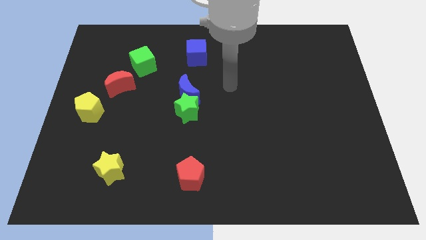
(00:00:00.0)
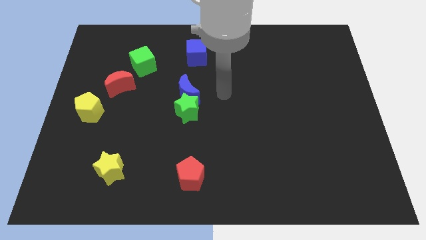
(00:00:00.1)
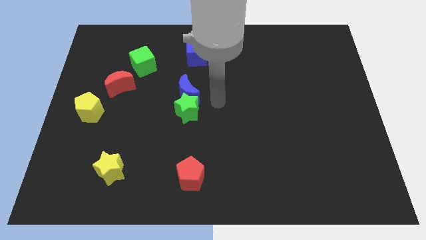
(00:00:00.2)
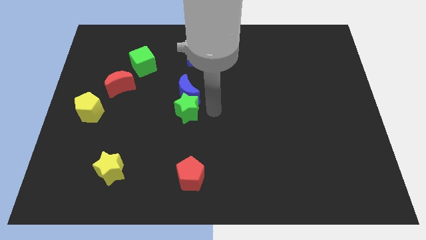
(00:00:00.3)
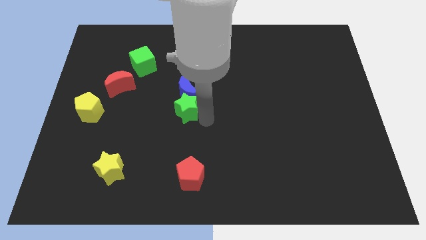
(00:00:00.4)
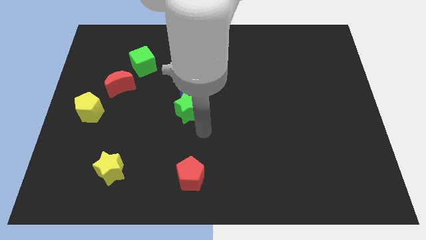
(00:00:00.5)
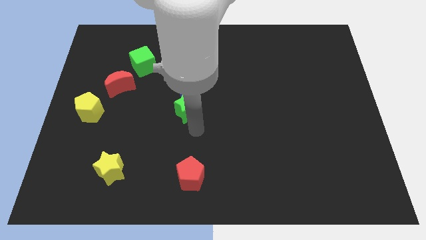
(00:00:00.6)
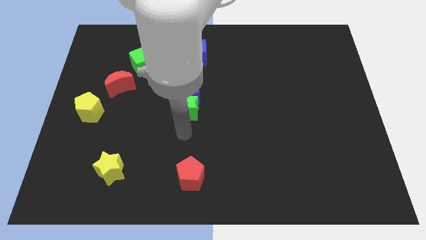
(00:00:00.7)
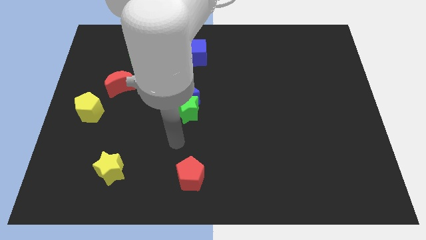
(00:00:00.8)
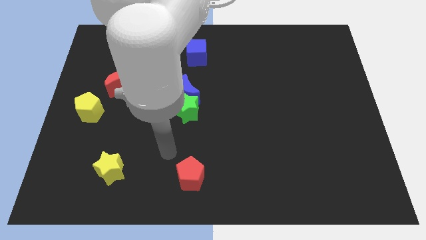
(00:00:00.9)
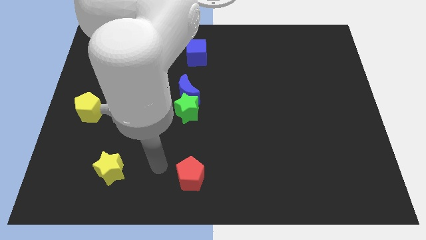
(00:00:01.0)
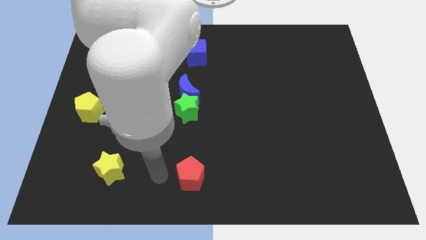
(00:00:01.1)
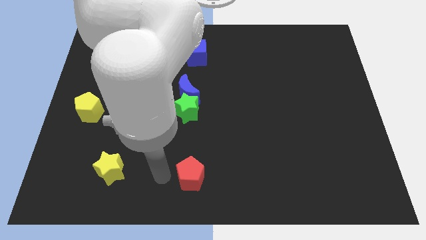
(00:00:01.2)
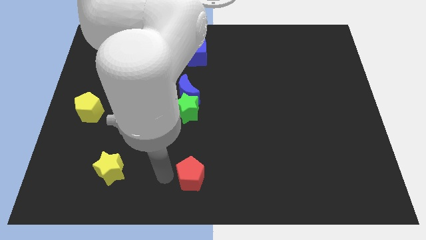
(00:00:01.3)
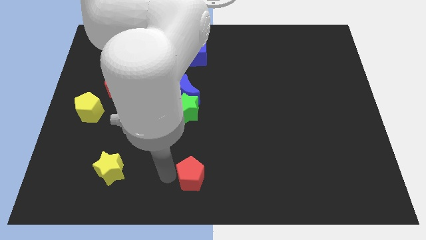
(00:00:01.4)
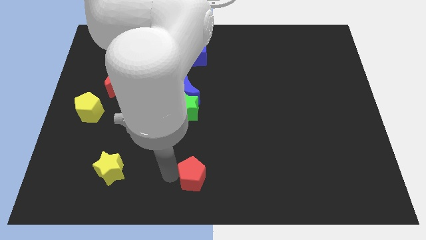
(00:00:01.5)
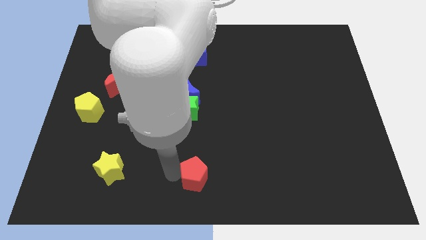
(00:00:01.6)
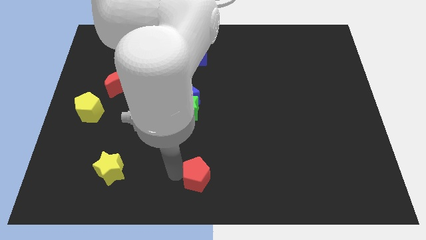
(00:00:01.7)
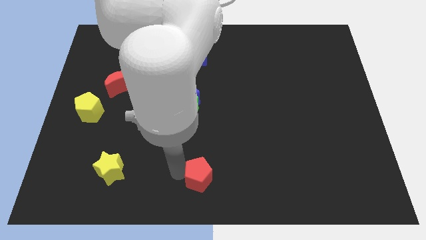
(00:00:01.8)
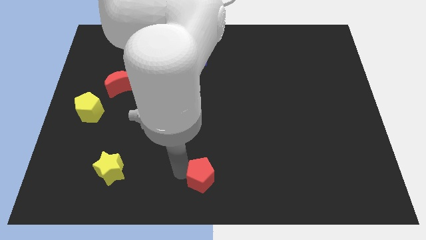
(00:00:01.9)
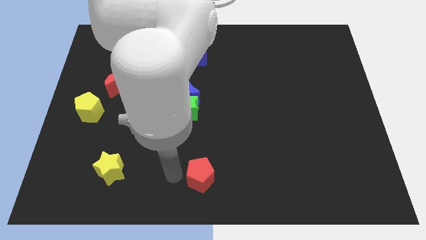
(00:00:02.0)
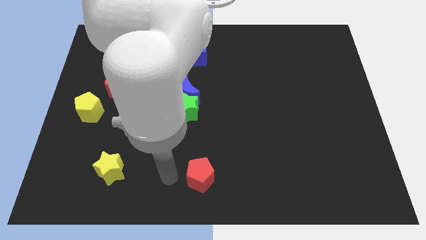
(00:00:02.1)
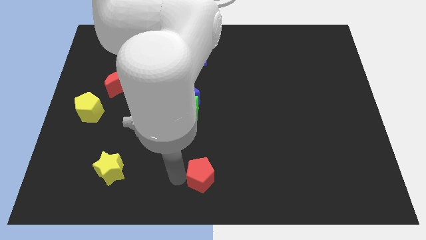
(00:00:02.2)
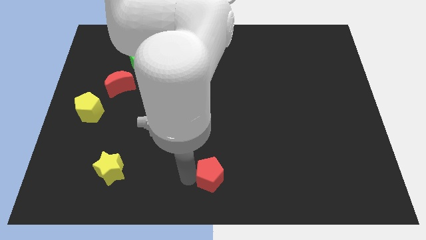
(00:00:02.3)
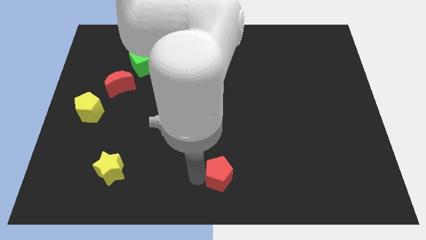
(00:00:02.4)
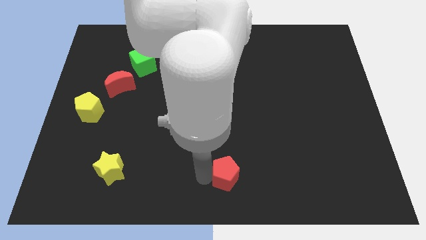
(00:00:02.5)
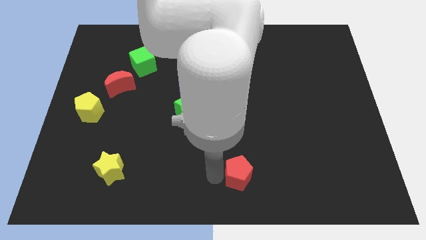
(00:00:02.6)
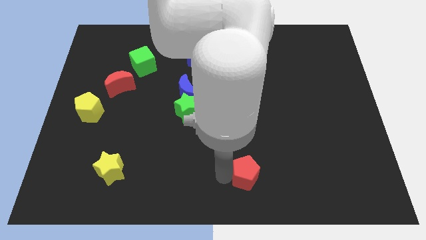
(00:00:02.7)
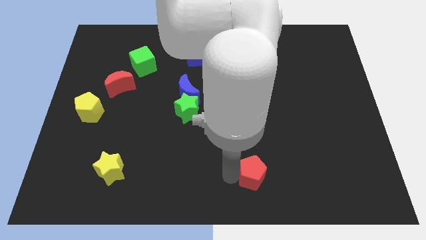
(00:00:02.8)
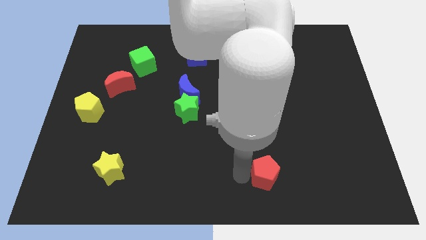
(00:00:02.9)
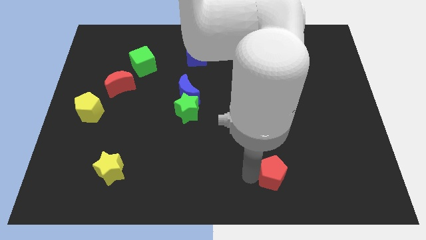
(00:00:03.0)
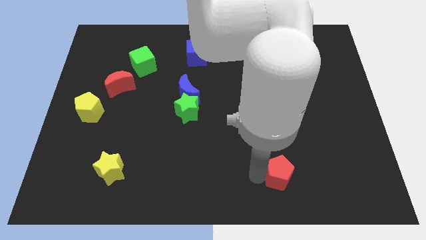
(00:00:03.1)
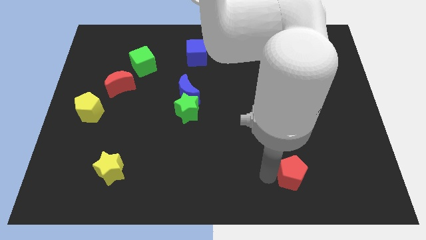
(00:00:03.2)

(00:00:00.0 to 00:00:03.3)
move the red pentagon right

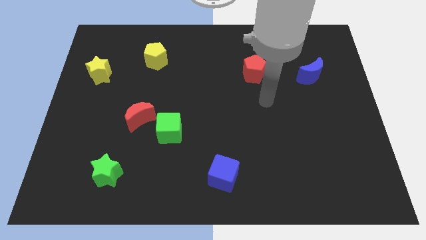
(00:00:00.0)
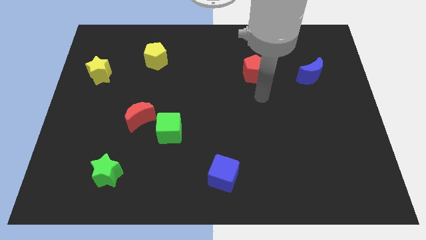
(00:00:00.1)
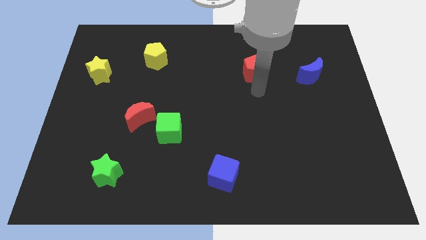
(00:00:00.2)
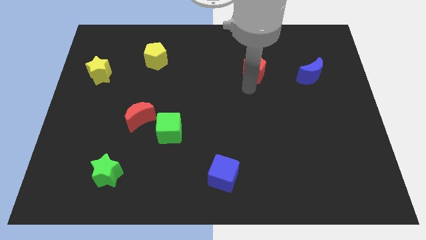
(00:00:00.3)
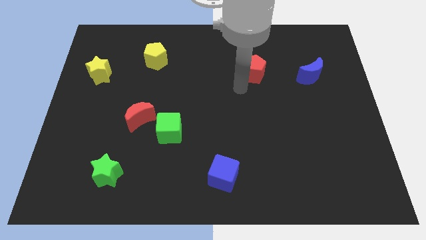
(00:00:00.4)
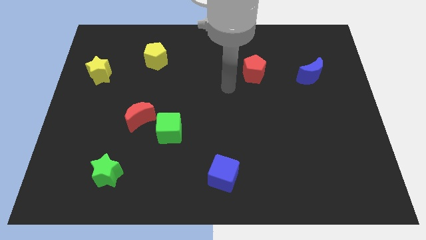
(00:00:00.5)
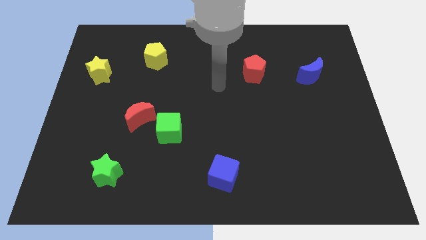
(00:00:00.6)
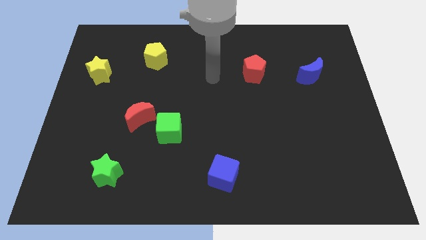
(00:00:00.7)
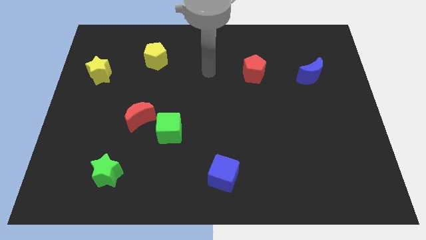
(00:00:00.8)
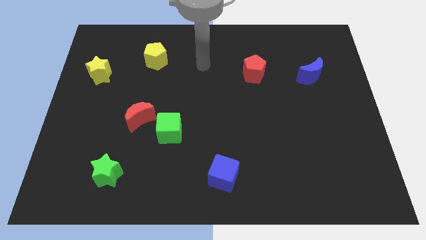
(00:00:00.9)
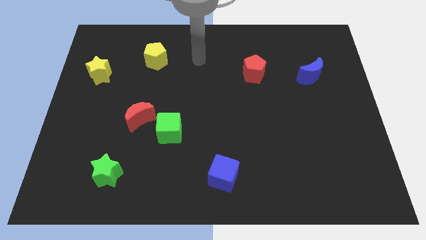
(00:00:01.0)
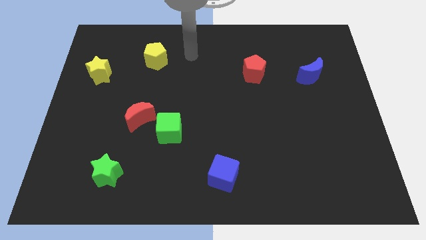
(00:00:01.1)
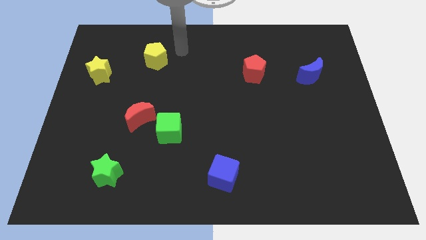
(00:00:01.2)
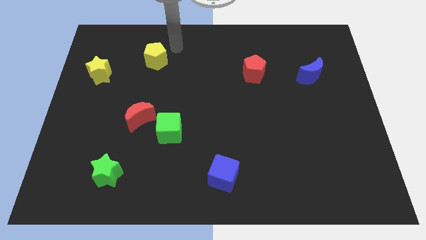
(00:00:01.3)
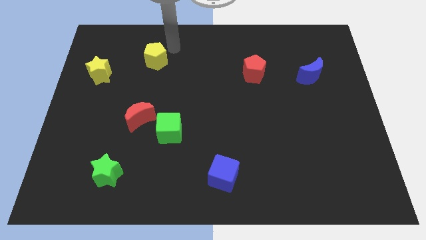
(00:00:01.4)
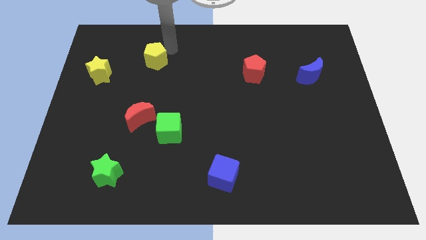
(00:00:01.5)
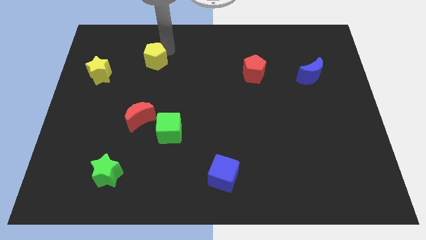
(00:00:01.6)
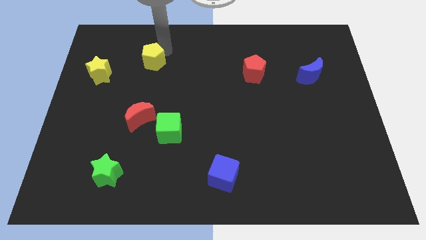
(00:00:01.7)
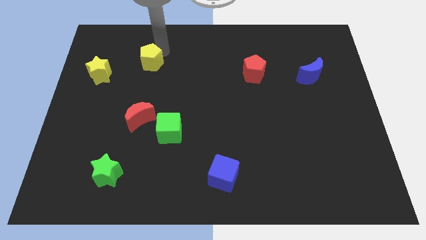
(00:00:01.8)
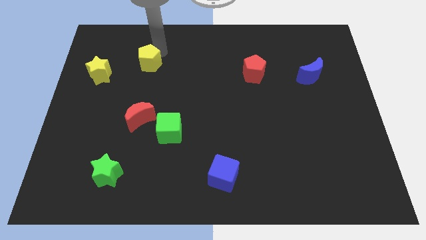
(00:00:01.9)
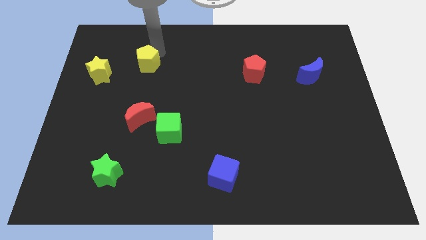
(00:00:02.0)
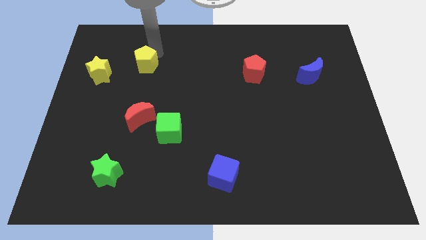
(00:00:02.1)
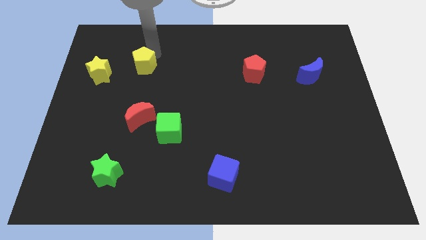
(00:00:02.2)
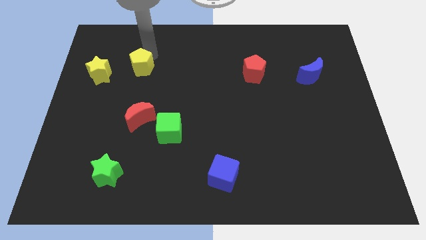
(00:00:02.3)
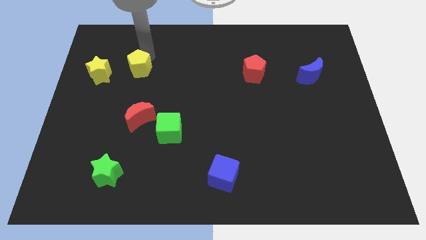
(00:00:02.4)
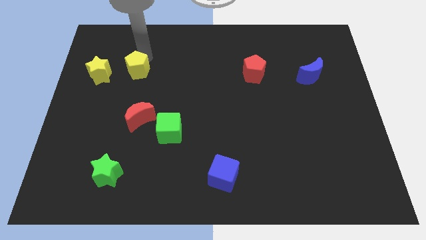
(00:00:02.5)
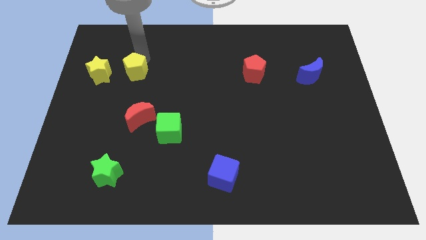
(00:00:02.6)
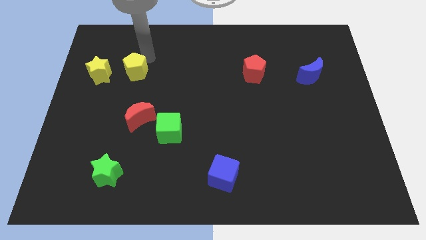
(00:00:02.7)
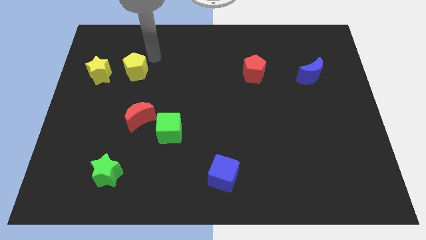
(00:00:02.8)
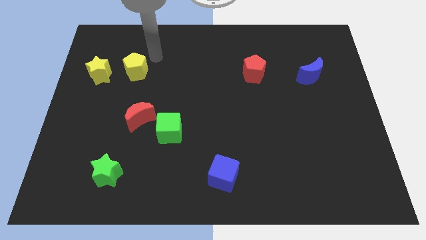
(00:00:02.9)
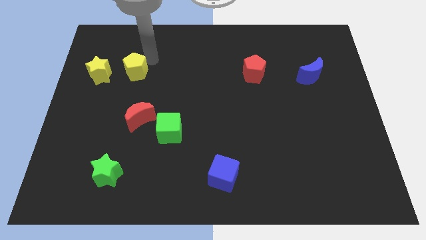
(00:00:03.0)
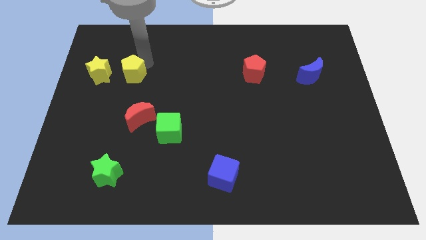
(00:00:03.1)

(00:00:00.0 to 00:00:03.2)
push the yellow pentagon down and then left a little bit

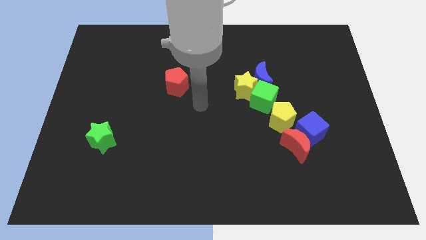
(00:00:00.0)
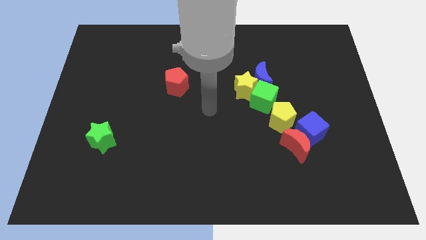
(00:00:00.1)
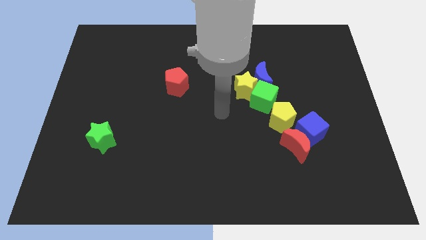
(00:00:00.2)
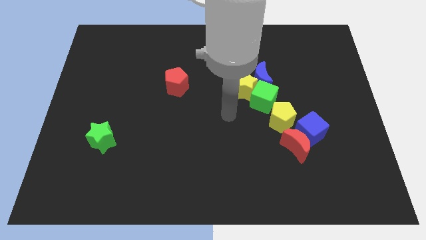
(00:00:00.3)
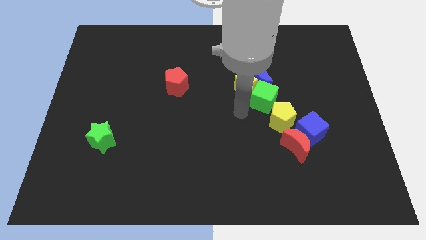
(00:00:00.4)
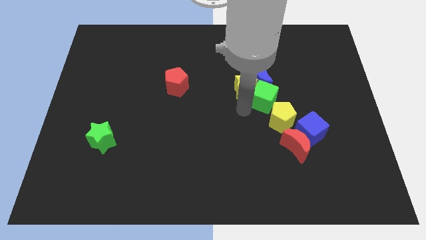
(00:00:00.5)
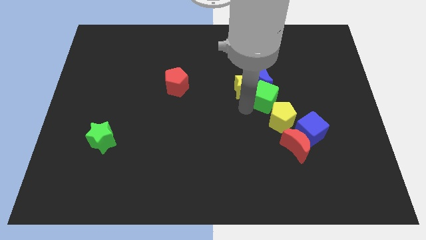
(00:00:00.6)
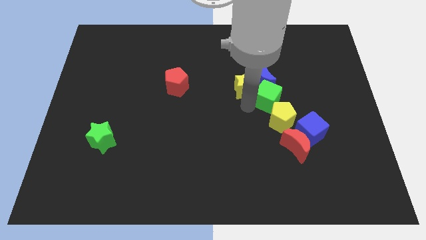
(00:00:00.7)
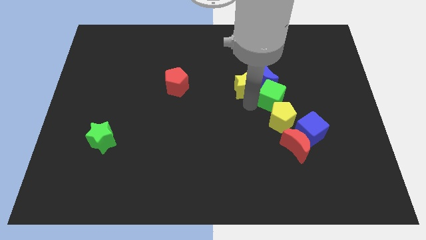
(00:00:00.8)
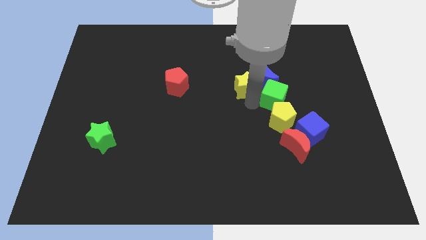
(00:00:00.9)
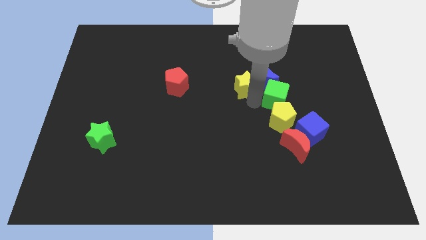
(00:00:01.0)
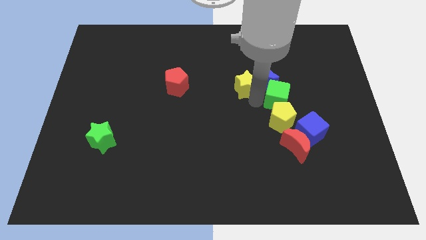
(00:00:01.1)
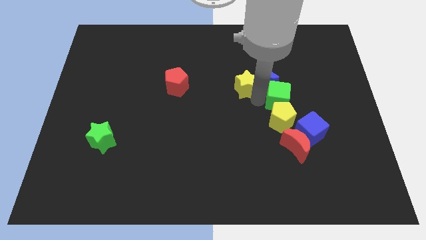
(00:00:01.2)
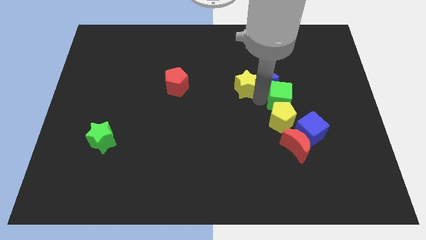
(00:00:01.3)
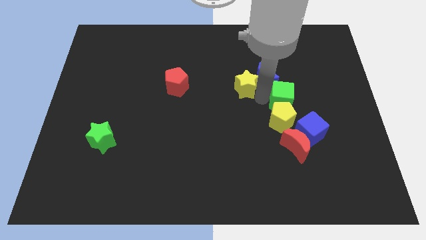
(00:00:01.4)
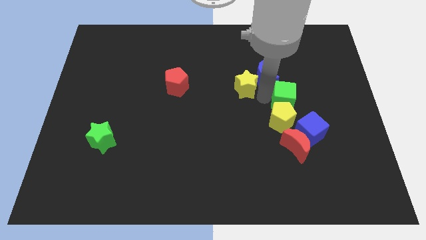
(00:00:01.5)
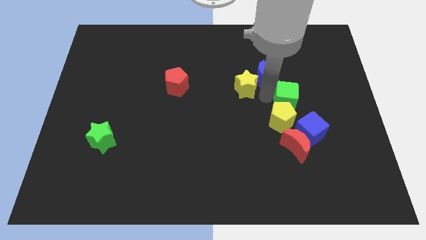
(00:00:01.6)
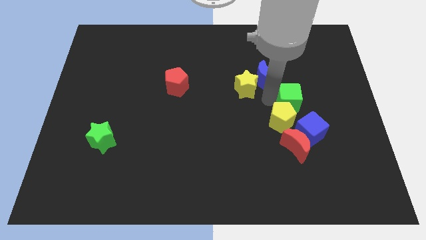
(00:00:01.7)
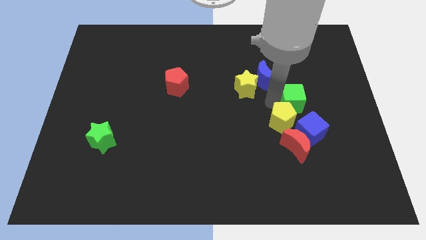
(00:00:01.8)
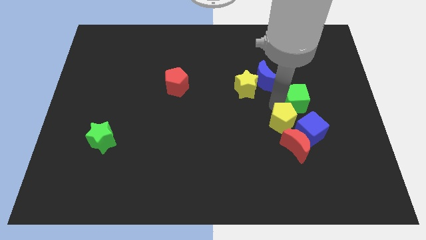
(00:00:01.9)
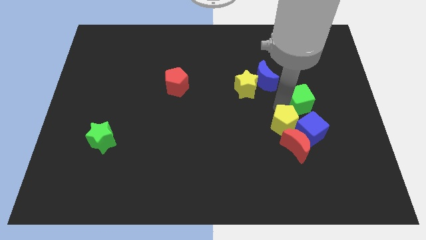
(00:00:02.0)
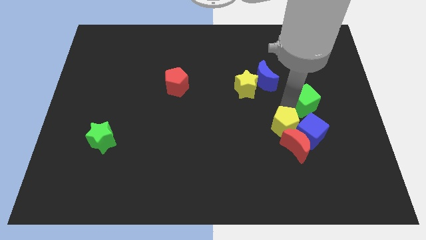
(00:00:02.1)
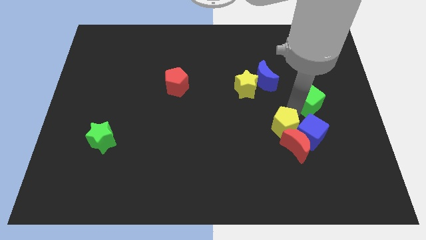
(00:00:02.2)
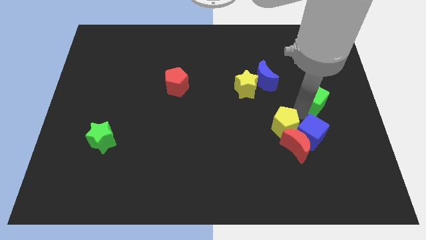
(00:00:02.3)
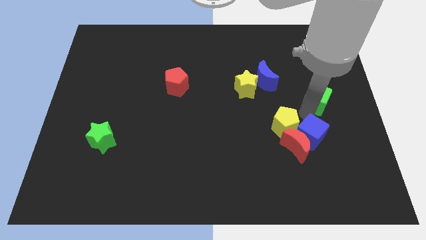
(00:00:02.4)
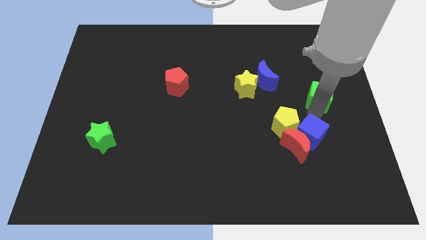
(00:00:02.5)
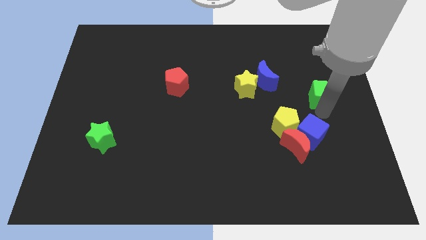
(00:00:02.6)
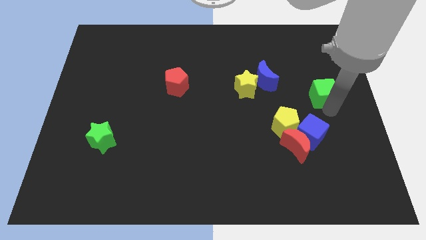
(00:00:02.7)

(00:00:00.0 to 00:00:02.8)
slightly push the green cube diagonally up and to the right
